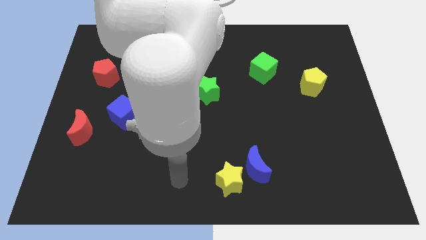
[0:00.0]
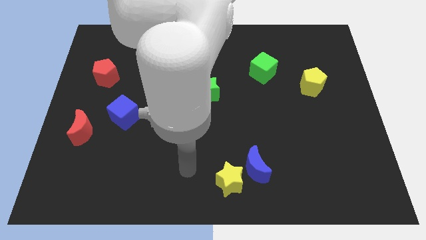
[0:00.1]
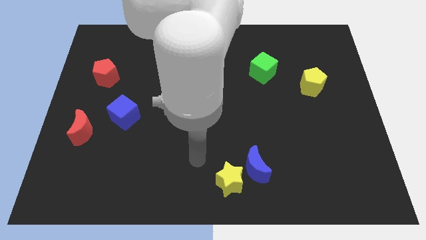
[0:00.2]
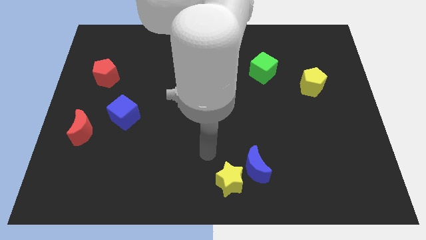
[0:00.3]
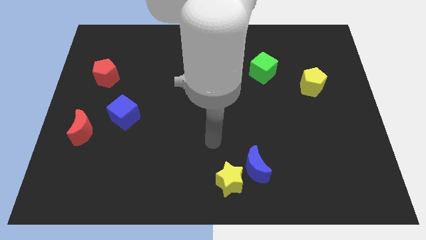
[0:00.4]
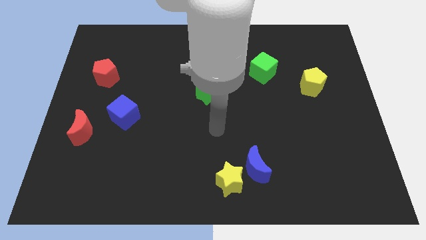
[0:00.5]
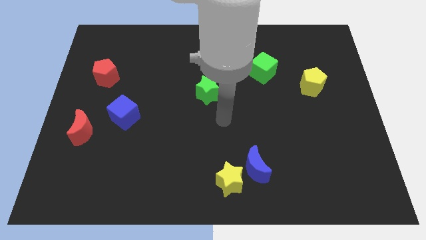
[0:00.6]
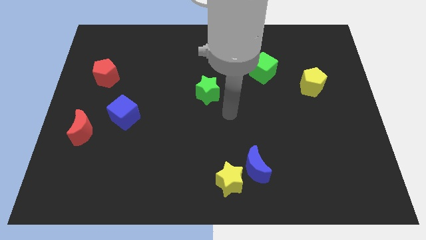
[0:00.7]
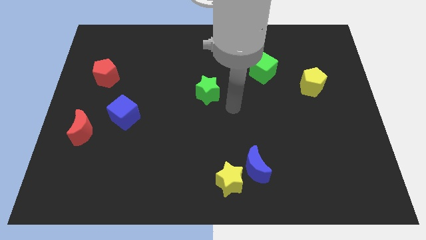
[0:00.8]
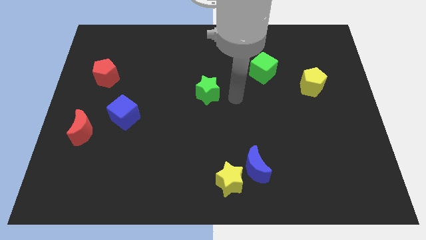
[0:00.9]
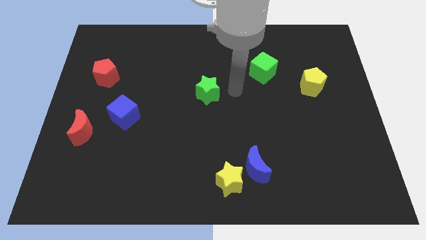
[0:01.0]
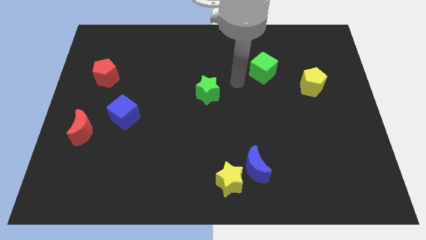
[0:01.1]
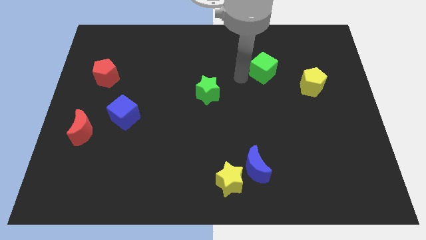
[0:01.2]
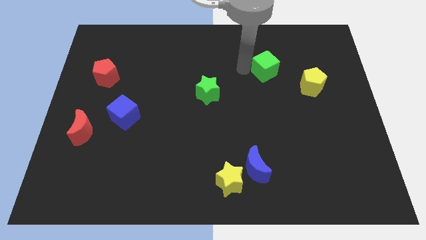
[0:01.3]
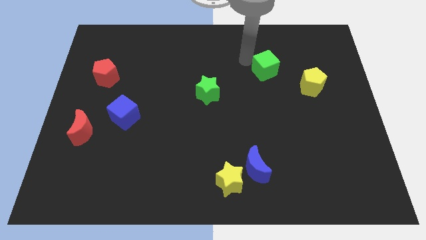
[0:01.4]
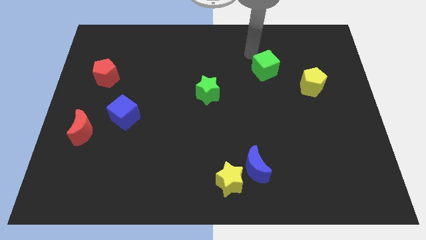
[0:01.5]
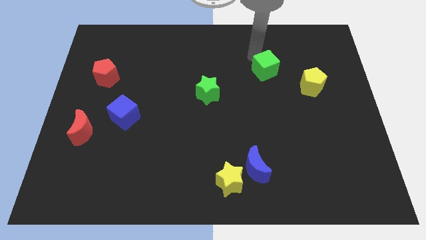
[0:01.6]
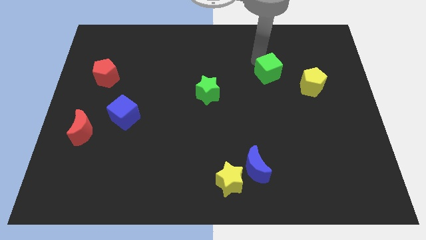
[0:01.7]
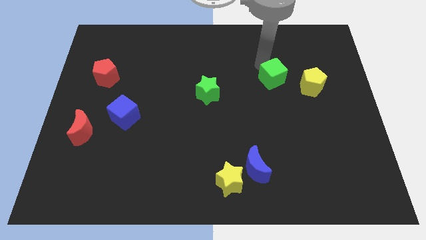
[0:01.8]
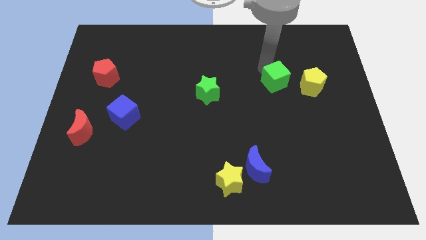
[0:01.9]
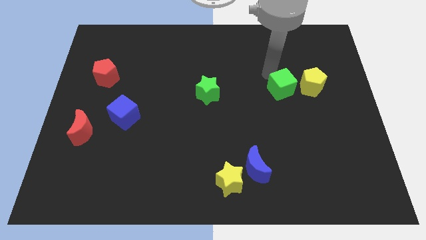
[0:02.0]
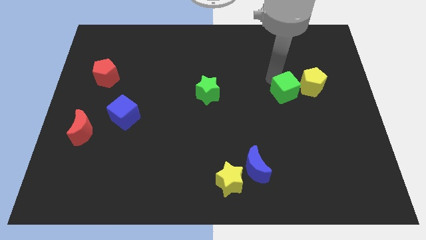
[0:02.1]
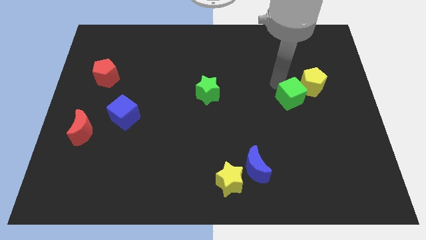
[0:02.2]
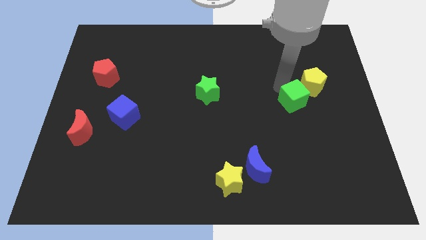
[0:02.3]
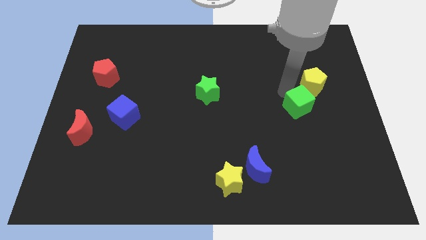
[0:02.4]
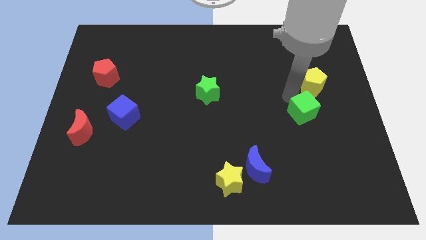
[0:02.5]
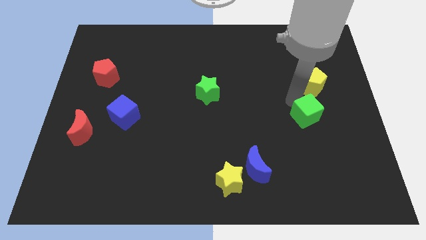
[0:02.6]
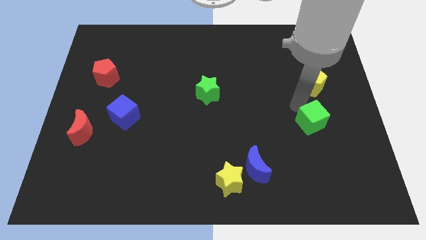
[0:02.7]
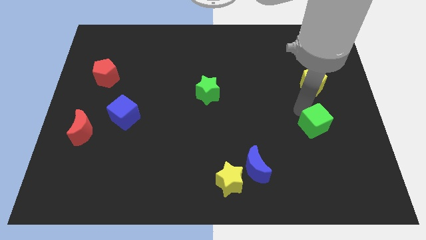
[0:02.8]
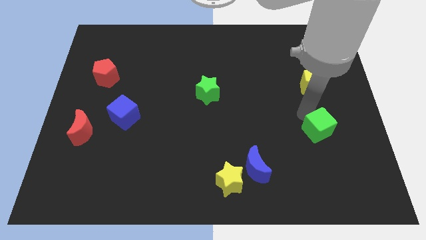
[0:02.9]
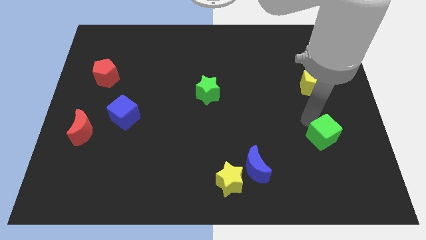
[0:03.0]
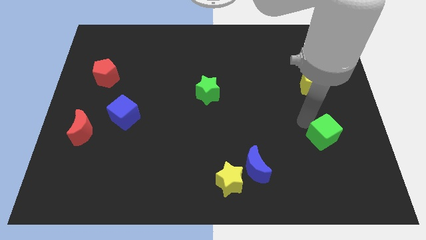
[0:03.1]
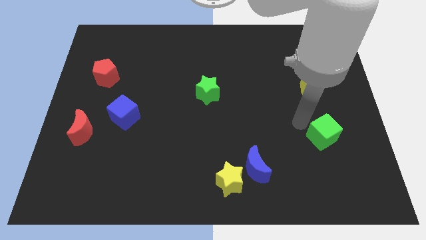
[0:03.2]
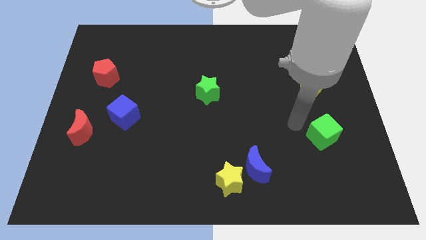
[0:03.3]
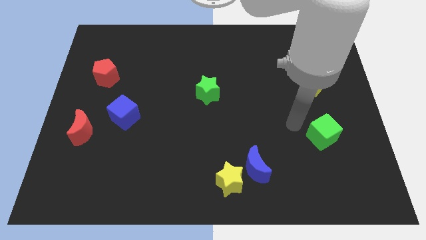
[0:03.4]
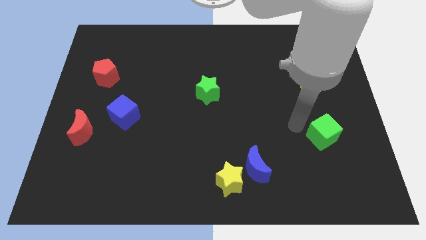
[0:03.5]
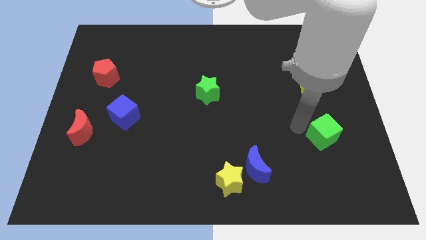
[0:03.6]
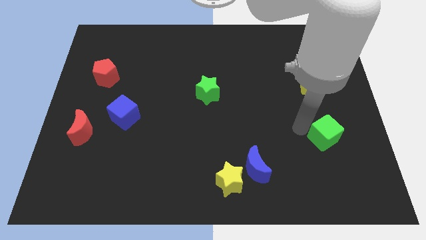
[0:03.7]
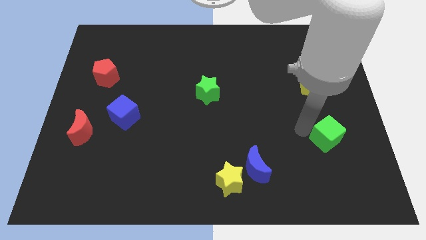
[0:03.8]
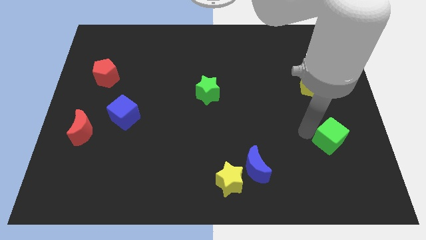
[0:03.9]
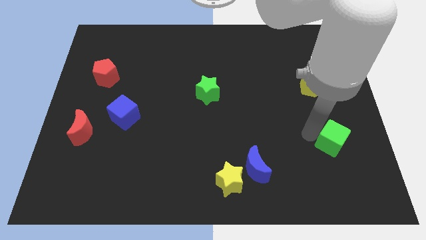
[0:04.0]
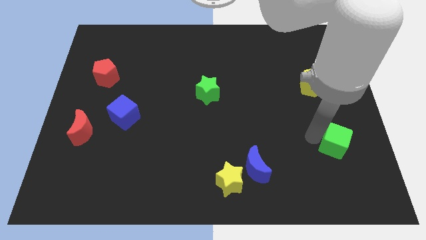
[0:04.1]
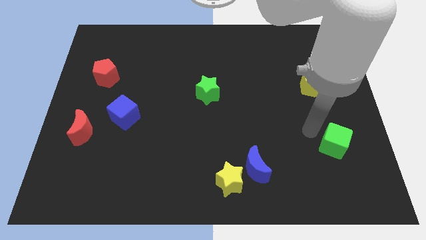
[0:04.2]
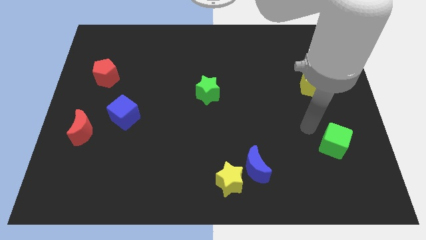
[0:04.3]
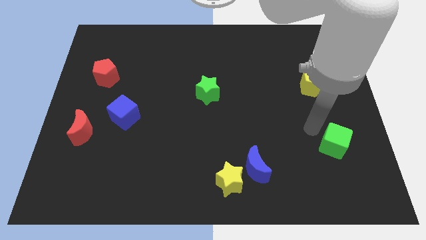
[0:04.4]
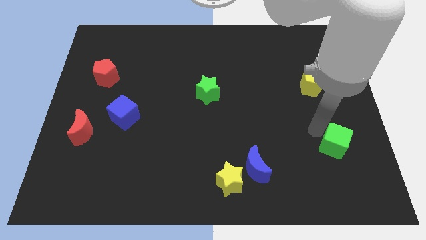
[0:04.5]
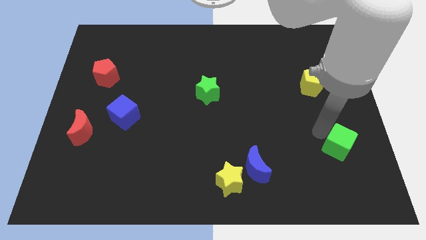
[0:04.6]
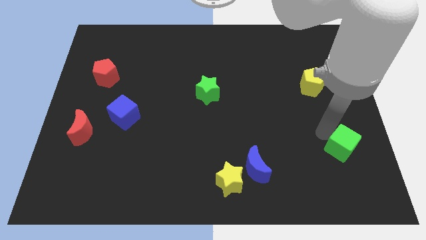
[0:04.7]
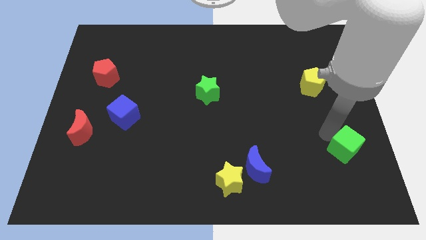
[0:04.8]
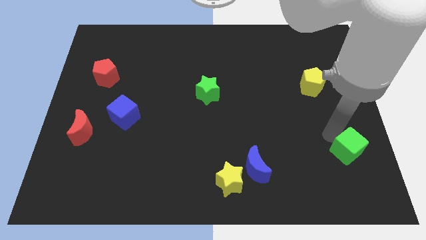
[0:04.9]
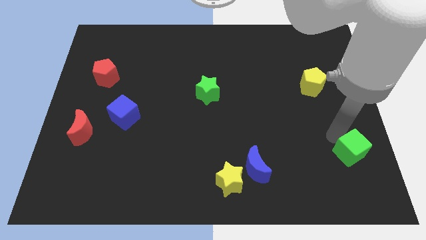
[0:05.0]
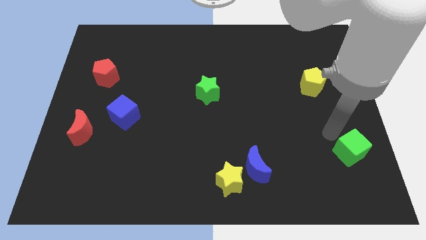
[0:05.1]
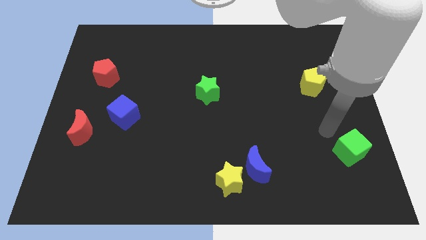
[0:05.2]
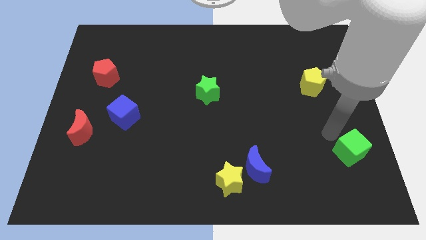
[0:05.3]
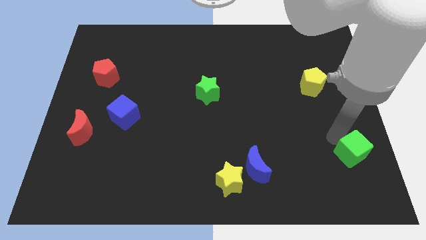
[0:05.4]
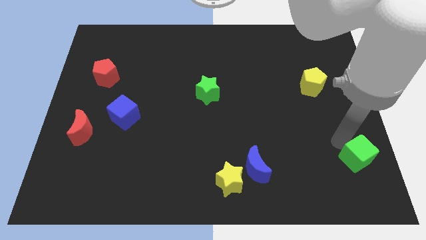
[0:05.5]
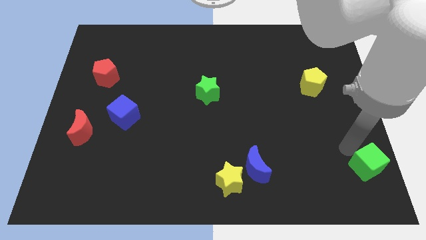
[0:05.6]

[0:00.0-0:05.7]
push the green cube to the lower right corner

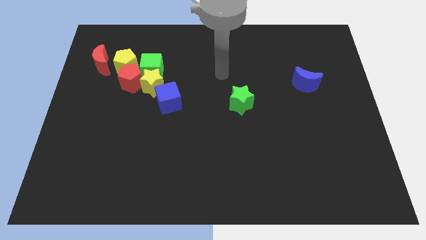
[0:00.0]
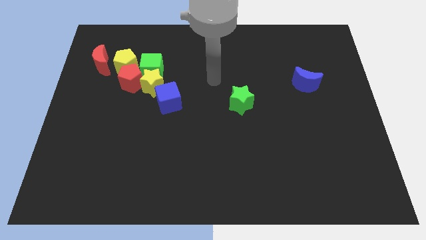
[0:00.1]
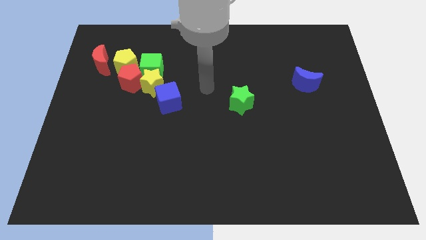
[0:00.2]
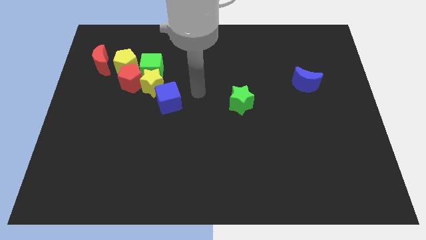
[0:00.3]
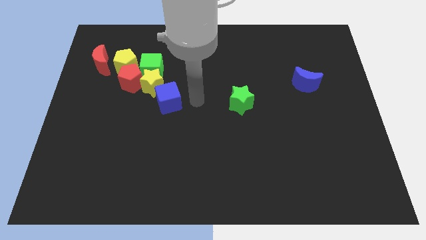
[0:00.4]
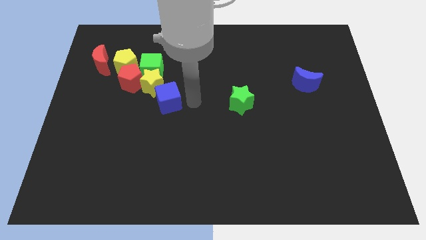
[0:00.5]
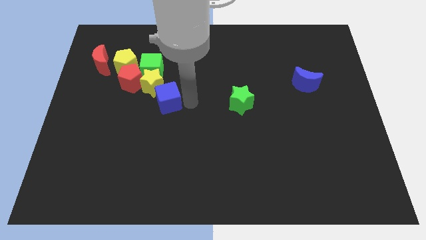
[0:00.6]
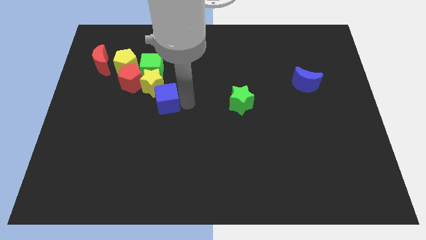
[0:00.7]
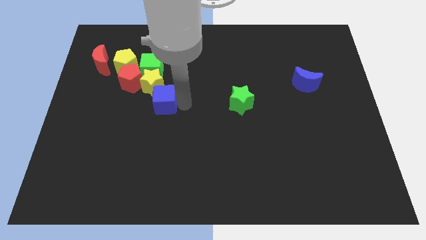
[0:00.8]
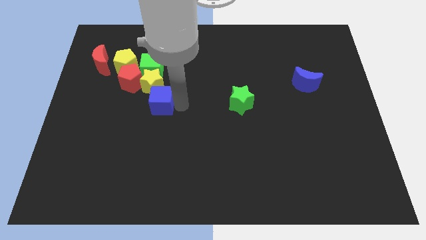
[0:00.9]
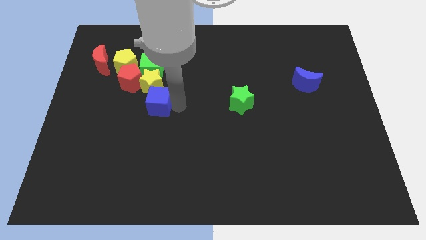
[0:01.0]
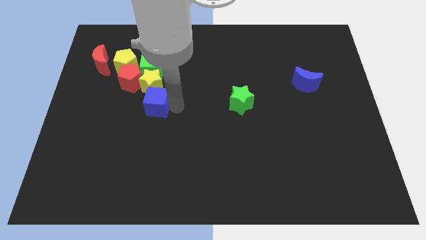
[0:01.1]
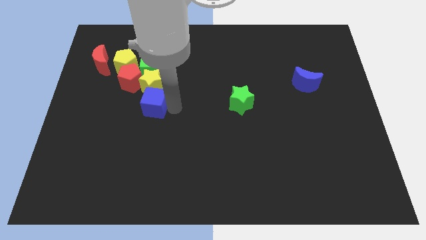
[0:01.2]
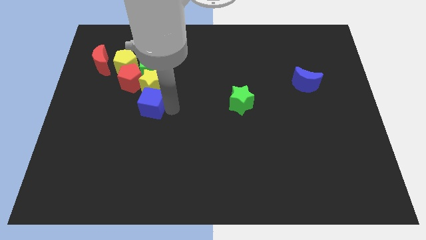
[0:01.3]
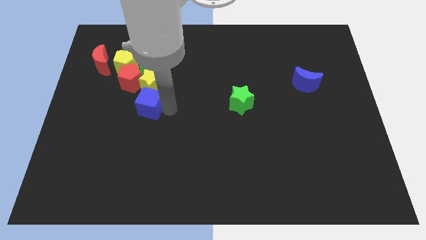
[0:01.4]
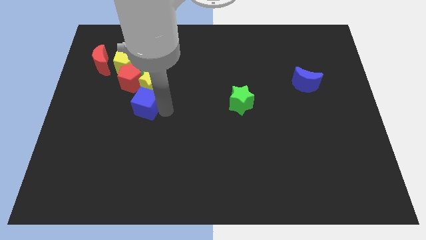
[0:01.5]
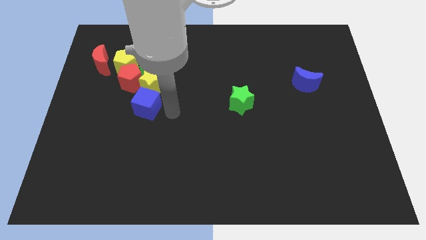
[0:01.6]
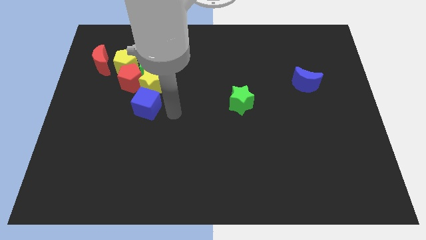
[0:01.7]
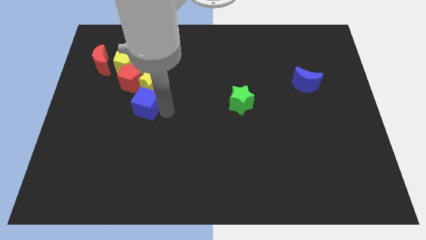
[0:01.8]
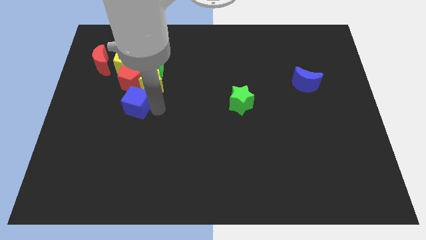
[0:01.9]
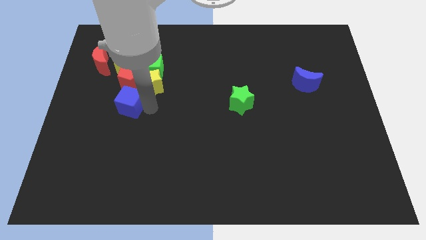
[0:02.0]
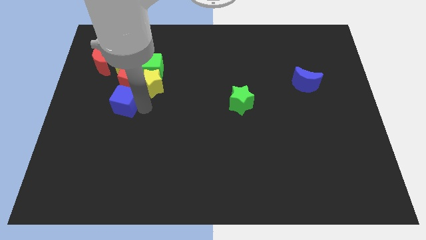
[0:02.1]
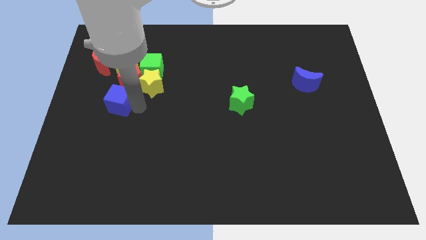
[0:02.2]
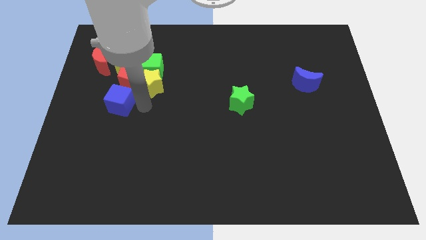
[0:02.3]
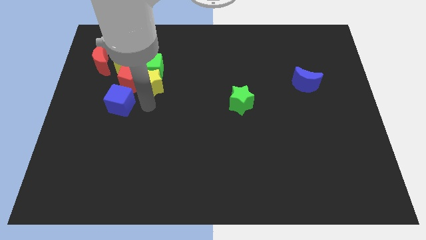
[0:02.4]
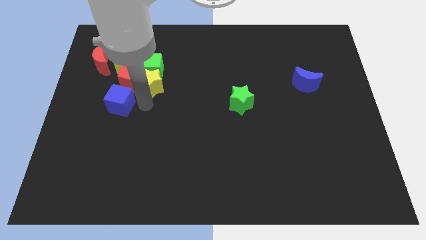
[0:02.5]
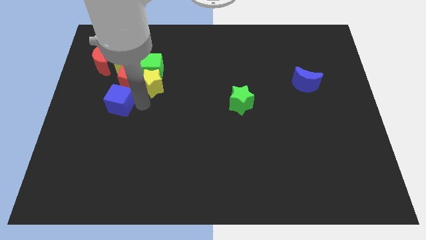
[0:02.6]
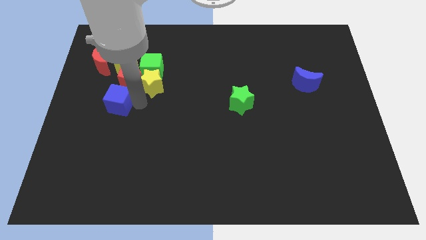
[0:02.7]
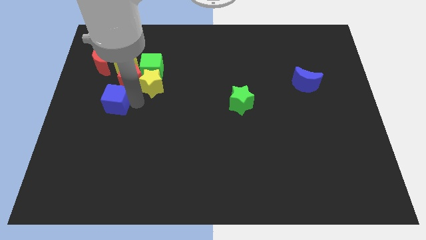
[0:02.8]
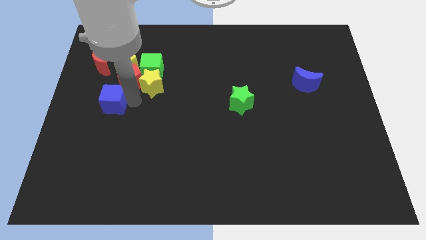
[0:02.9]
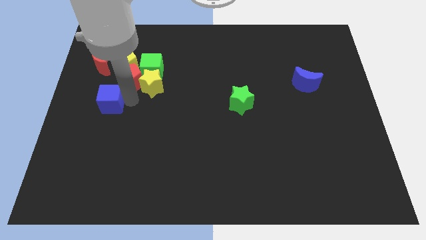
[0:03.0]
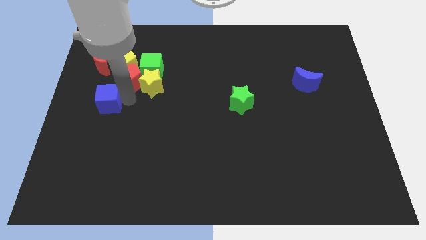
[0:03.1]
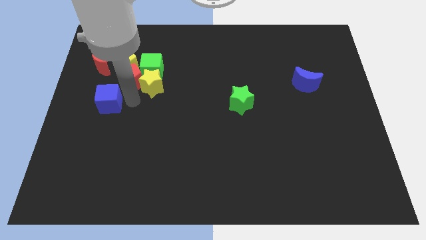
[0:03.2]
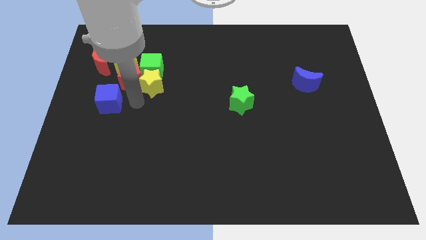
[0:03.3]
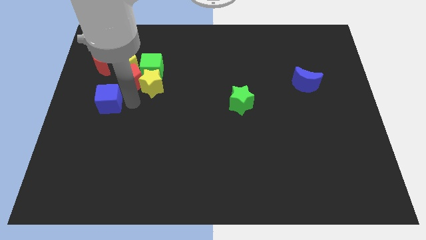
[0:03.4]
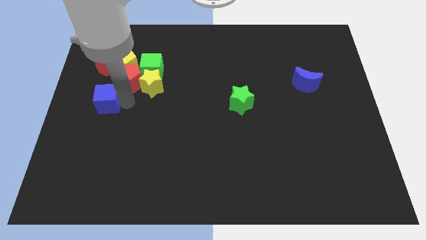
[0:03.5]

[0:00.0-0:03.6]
move the blue cube to the center left
